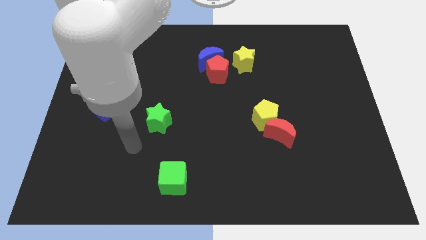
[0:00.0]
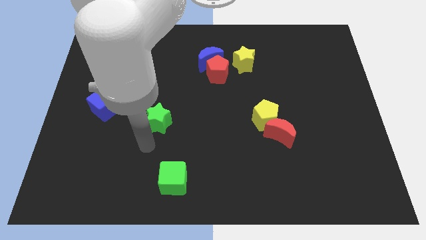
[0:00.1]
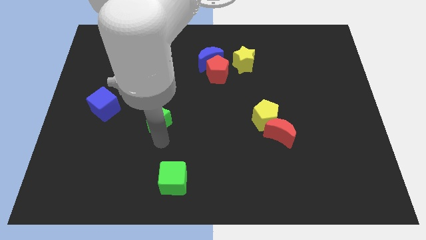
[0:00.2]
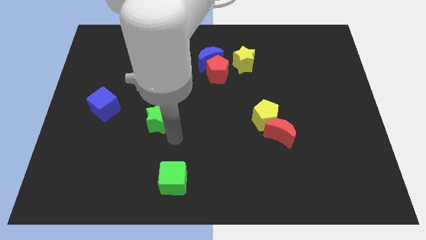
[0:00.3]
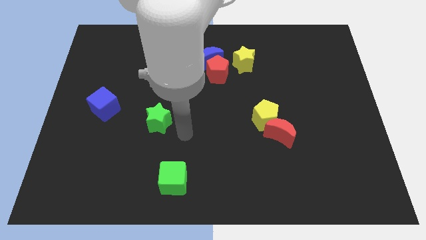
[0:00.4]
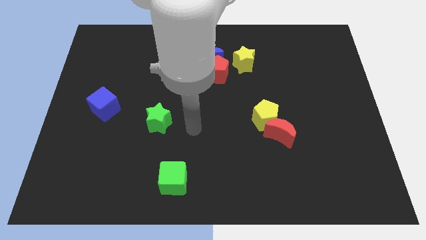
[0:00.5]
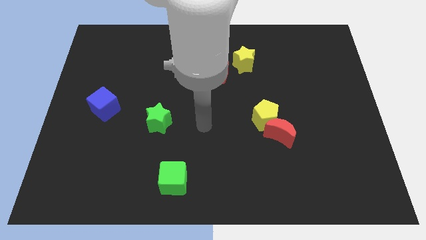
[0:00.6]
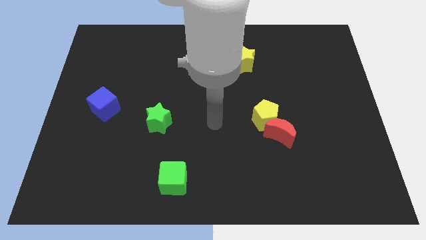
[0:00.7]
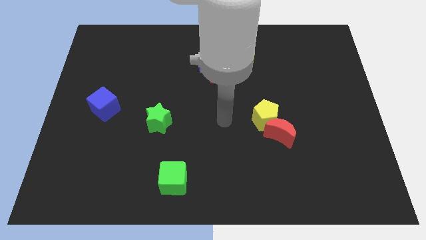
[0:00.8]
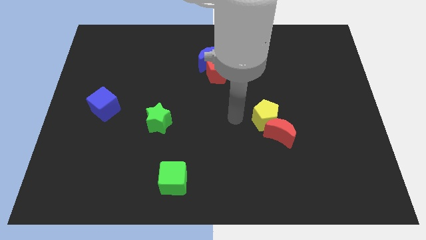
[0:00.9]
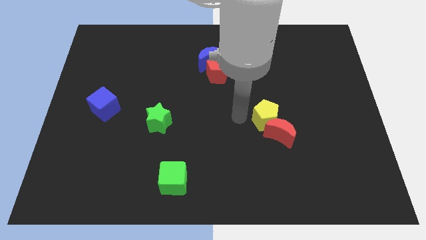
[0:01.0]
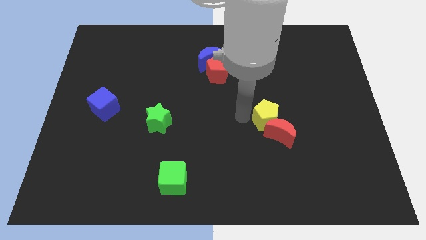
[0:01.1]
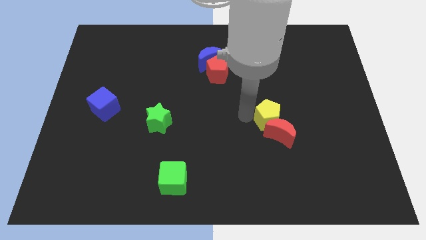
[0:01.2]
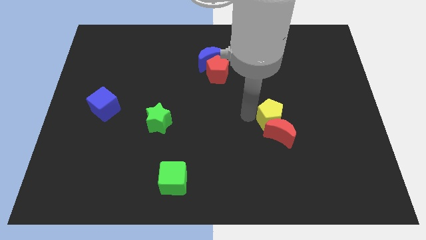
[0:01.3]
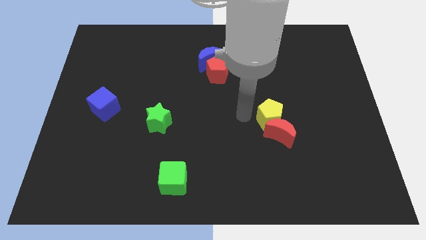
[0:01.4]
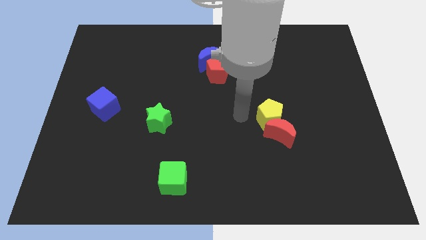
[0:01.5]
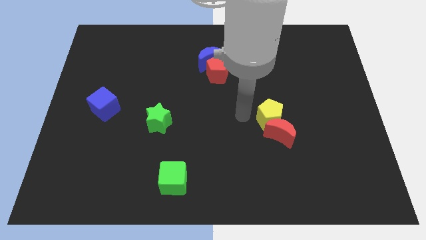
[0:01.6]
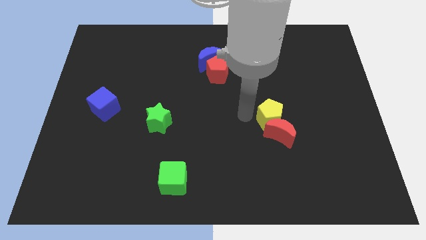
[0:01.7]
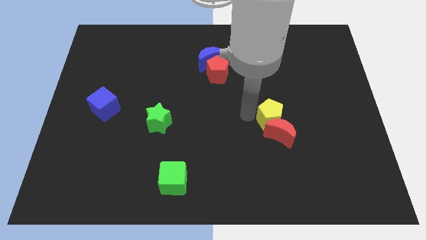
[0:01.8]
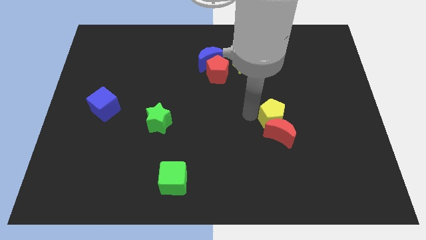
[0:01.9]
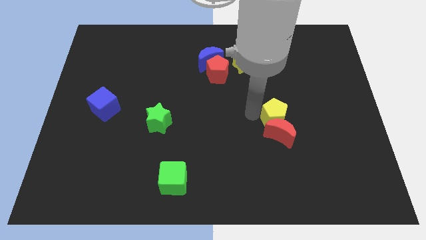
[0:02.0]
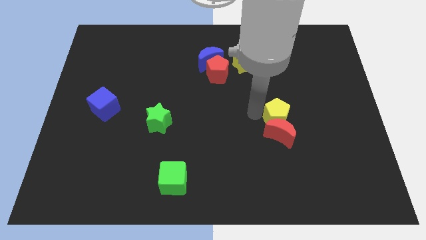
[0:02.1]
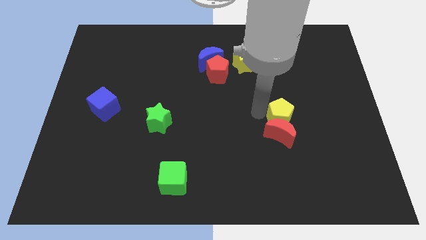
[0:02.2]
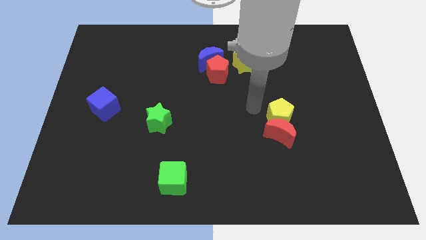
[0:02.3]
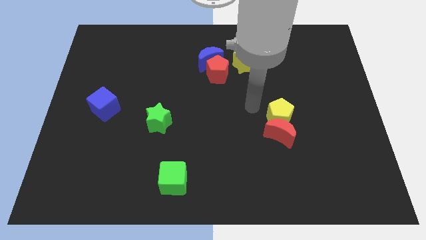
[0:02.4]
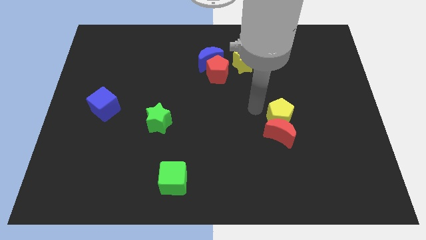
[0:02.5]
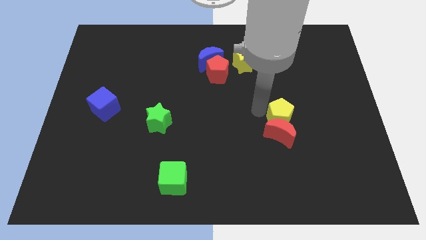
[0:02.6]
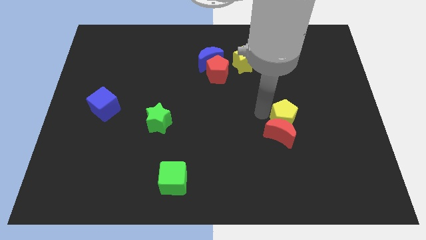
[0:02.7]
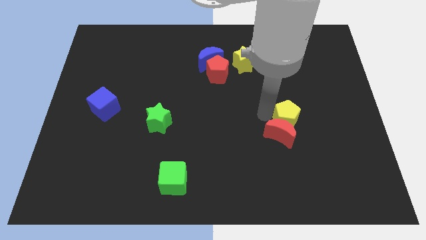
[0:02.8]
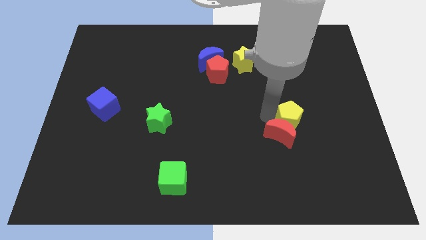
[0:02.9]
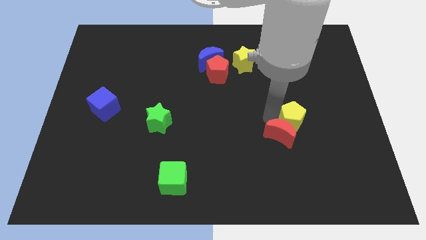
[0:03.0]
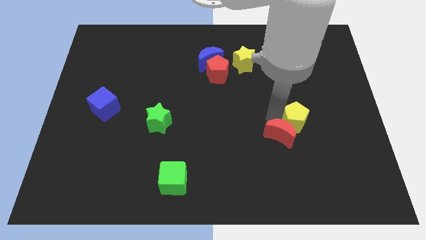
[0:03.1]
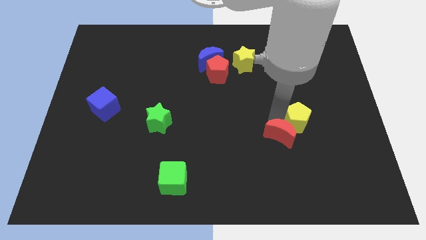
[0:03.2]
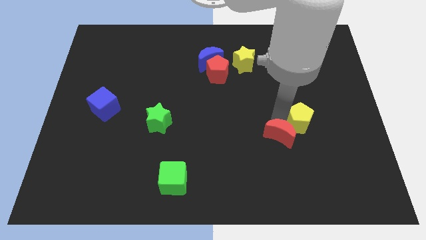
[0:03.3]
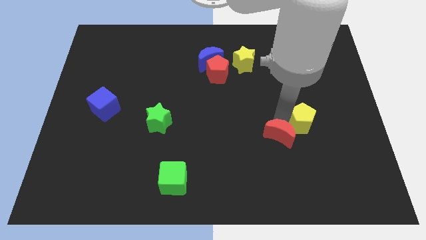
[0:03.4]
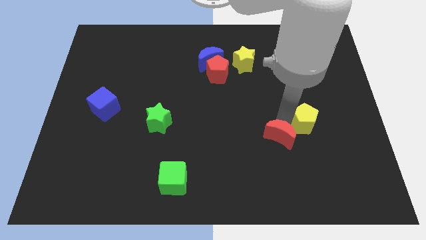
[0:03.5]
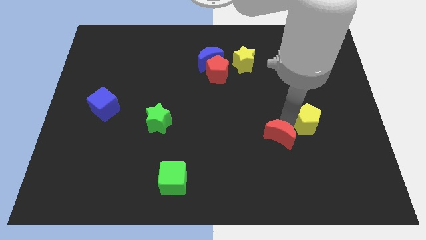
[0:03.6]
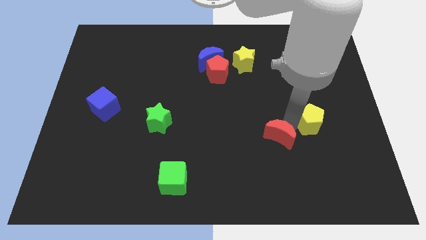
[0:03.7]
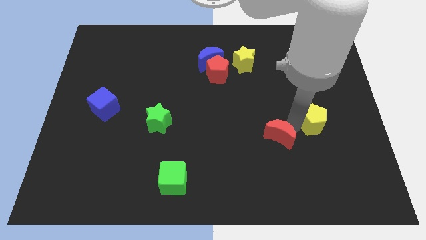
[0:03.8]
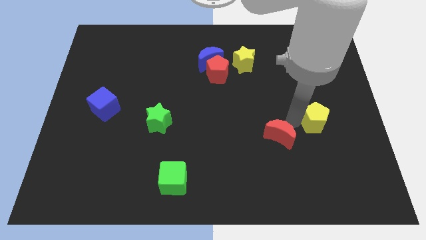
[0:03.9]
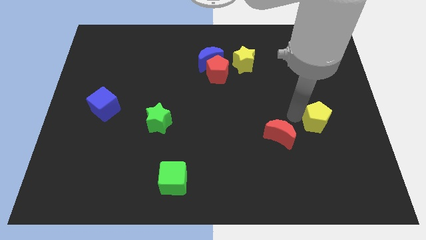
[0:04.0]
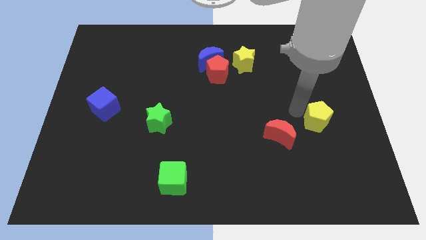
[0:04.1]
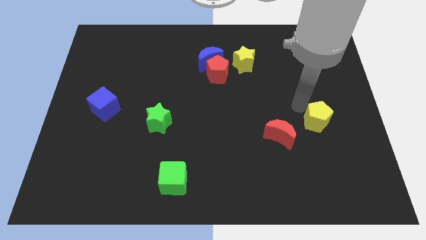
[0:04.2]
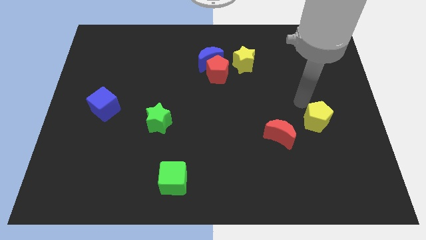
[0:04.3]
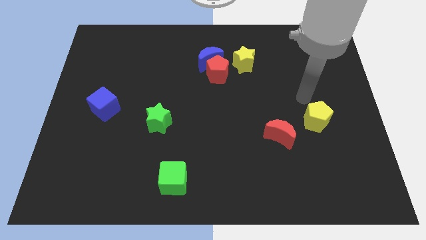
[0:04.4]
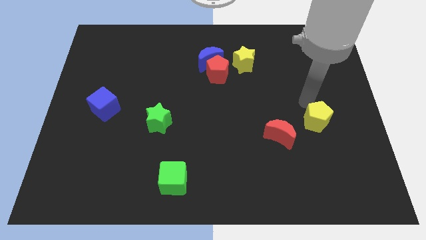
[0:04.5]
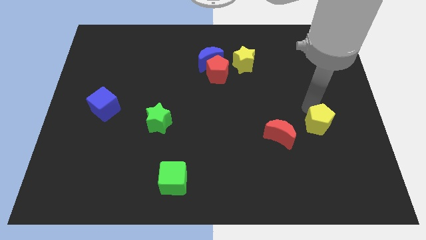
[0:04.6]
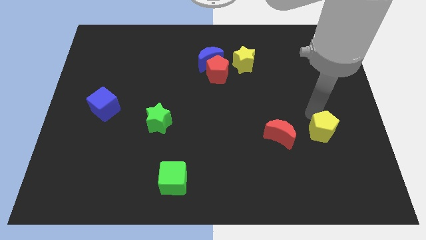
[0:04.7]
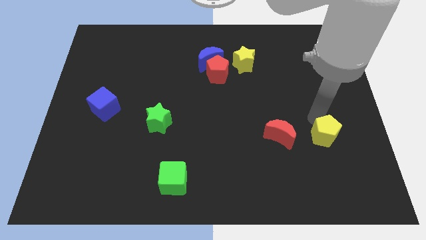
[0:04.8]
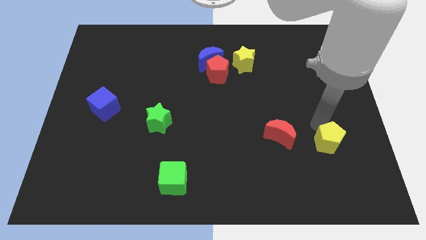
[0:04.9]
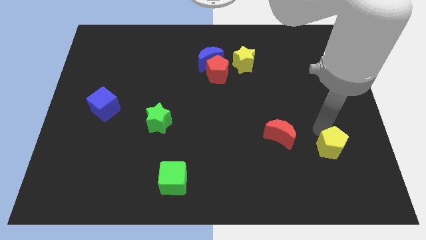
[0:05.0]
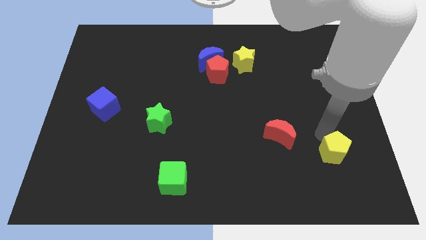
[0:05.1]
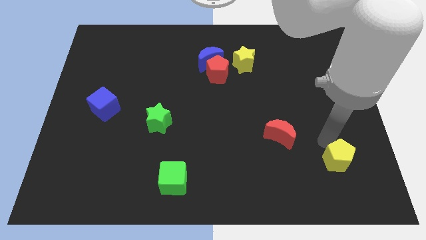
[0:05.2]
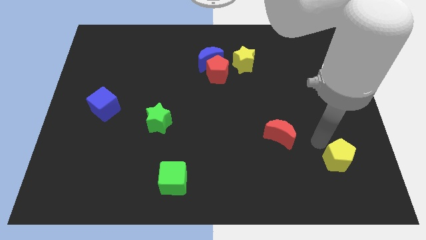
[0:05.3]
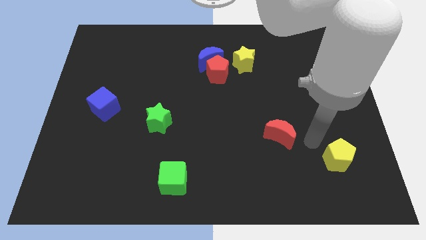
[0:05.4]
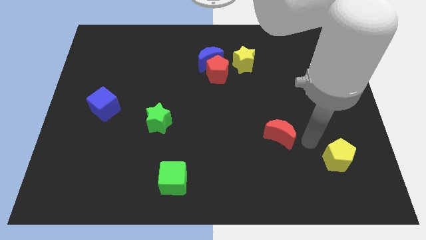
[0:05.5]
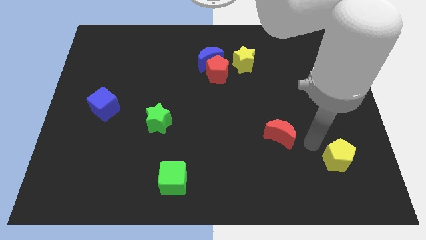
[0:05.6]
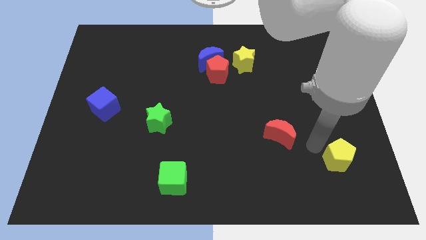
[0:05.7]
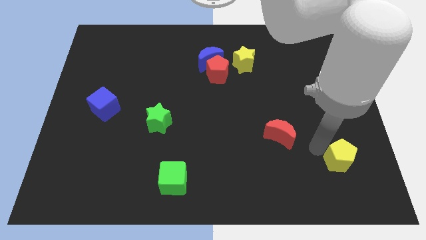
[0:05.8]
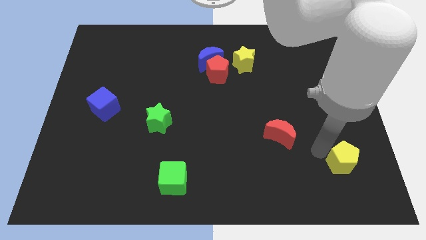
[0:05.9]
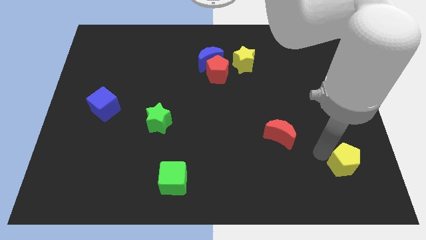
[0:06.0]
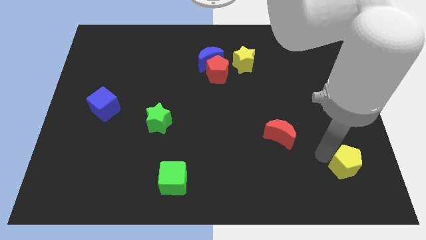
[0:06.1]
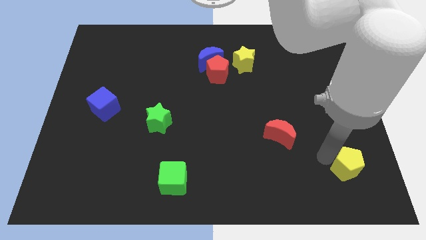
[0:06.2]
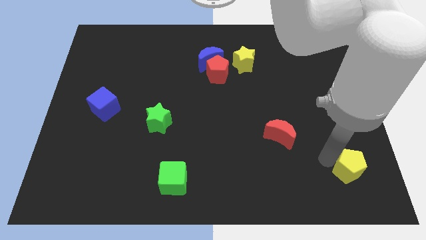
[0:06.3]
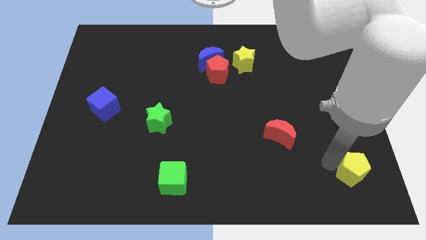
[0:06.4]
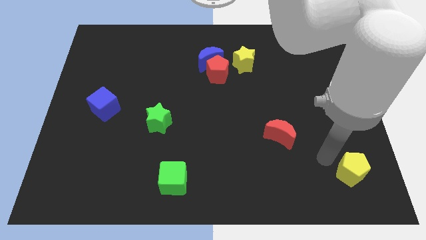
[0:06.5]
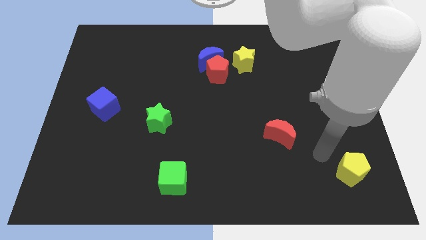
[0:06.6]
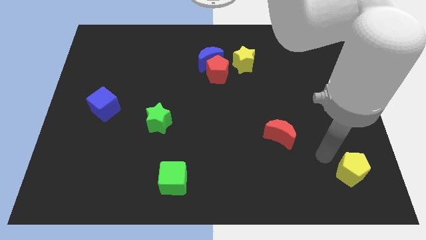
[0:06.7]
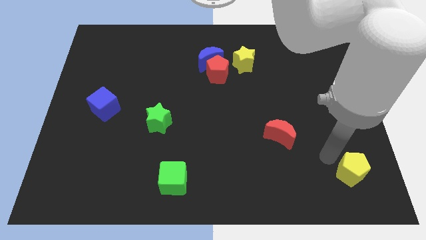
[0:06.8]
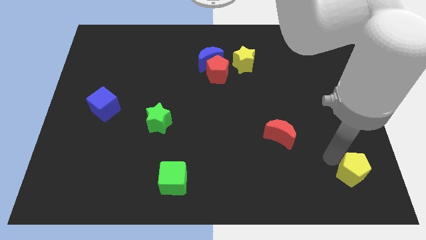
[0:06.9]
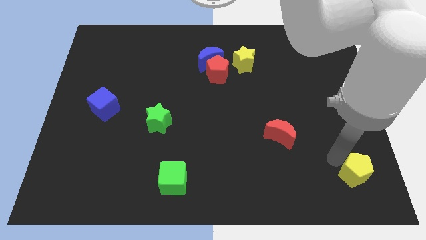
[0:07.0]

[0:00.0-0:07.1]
slide the yellow pentagon to the bottom right corner
